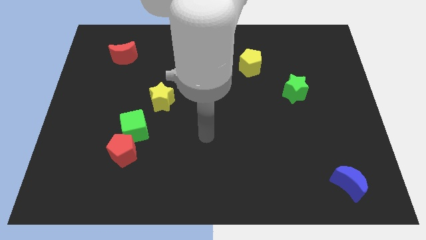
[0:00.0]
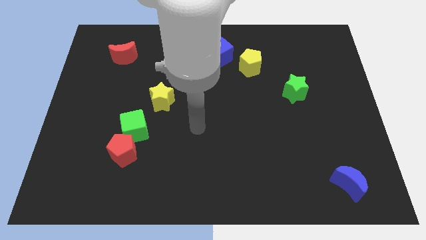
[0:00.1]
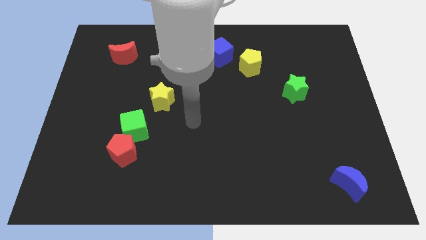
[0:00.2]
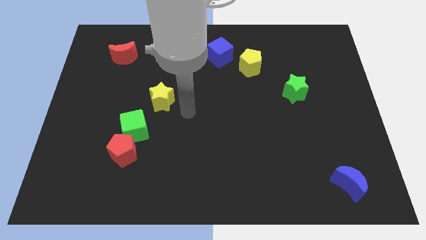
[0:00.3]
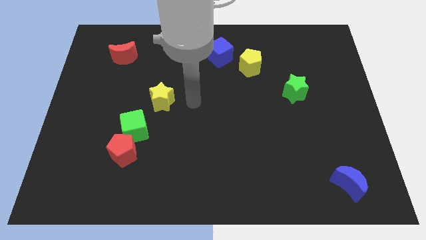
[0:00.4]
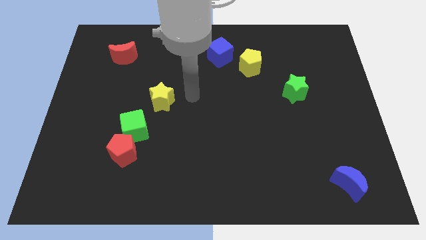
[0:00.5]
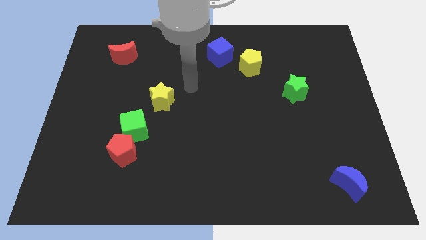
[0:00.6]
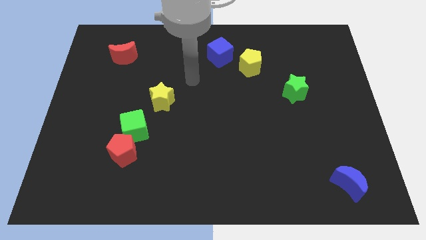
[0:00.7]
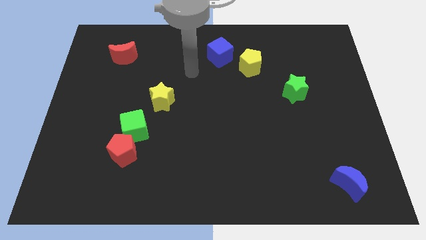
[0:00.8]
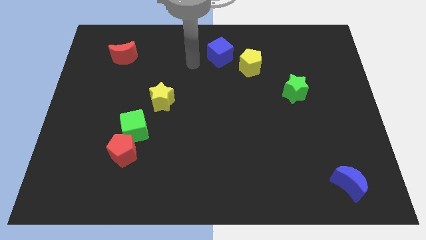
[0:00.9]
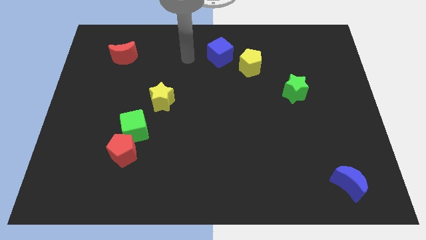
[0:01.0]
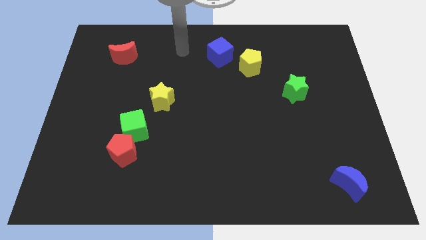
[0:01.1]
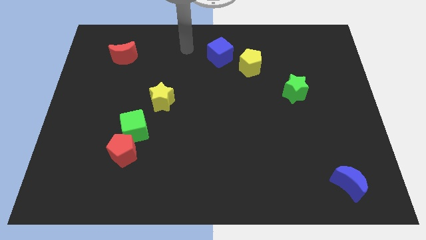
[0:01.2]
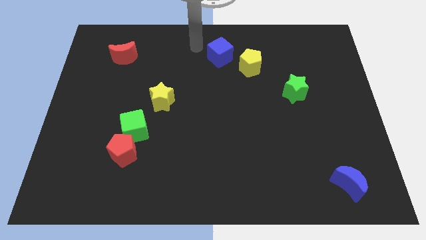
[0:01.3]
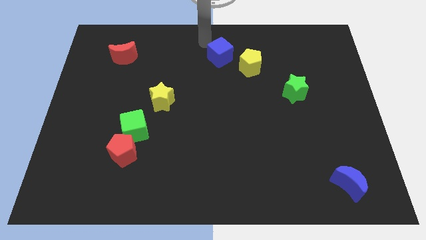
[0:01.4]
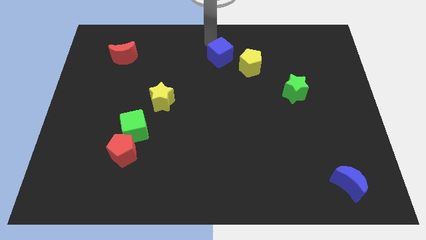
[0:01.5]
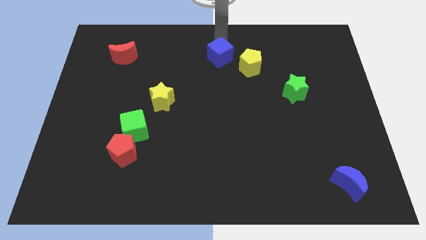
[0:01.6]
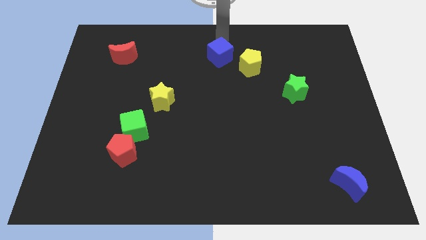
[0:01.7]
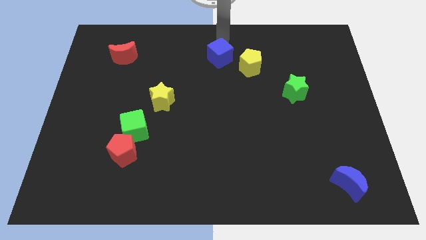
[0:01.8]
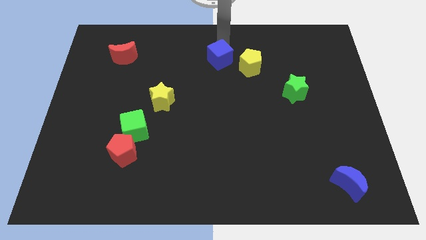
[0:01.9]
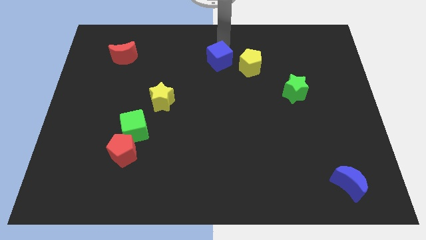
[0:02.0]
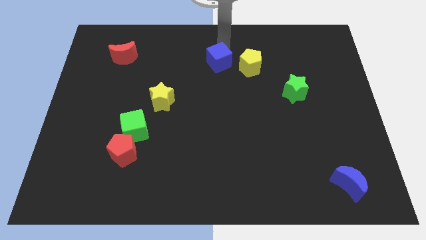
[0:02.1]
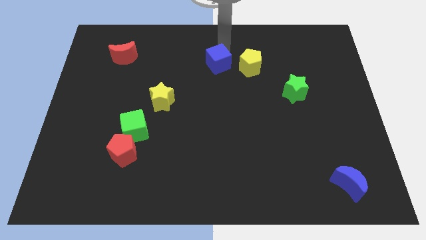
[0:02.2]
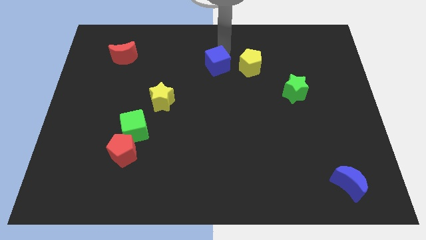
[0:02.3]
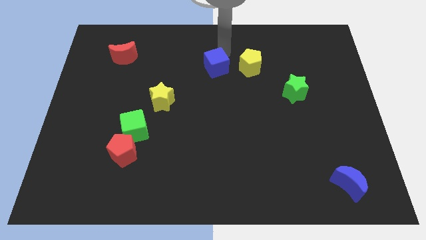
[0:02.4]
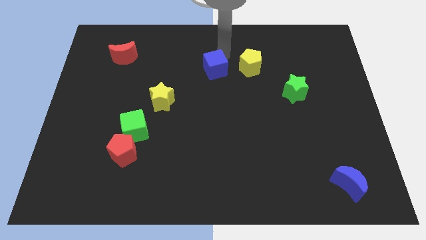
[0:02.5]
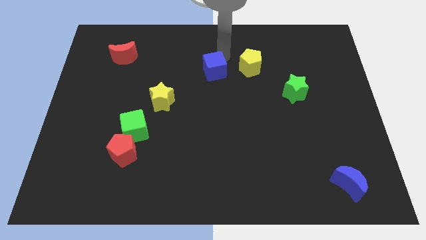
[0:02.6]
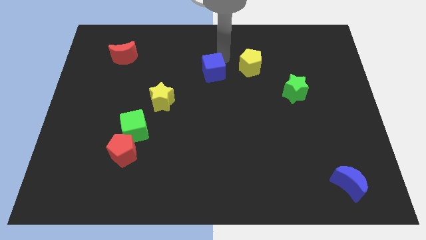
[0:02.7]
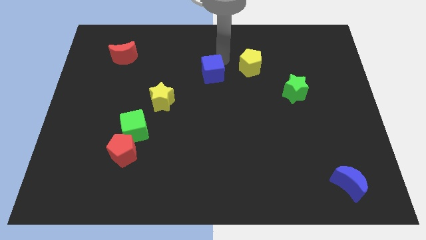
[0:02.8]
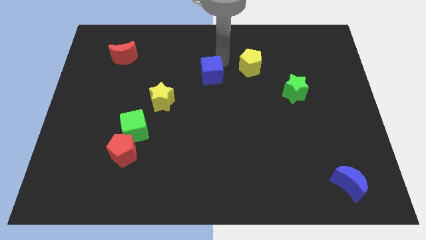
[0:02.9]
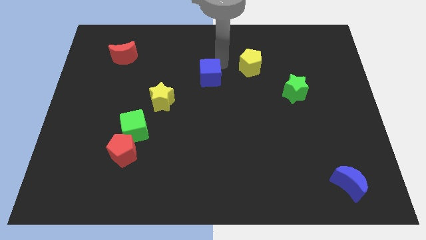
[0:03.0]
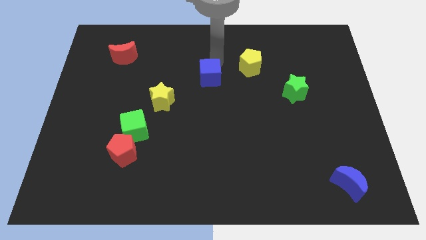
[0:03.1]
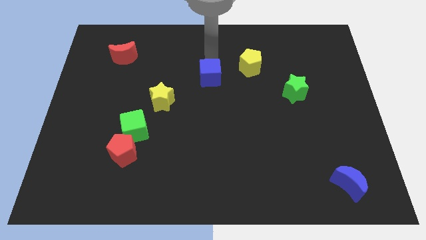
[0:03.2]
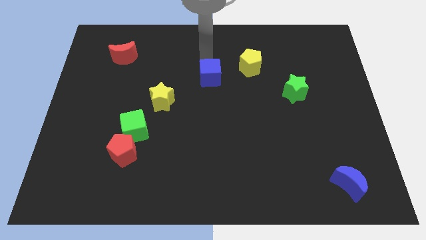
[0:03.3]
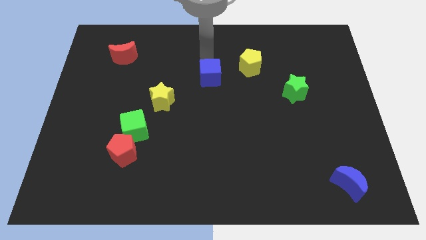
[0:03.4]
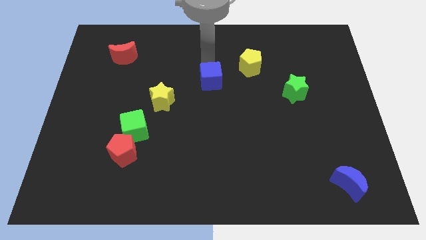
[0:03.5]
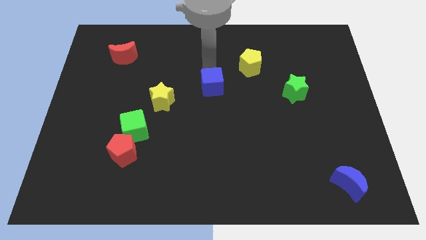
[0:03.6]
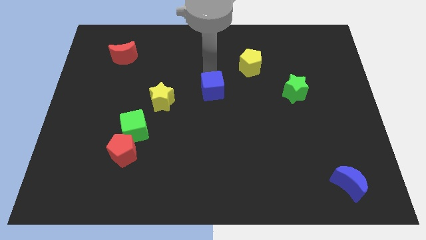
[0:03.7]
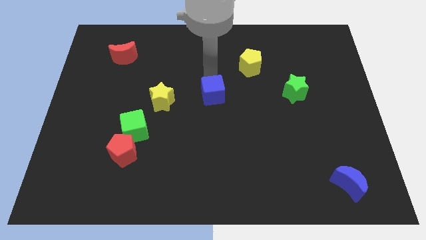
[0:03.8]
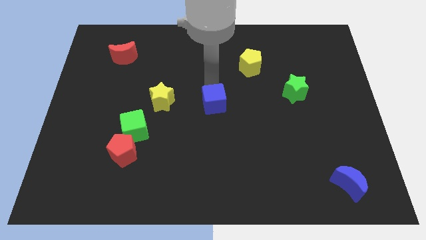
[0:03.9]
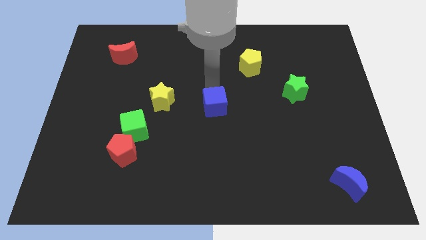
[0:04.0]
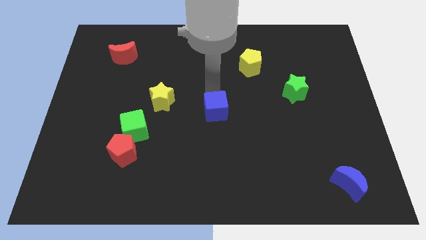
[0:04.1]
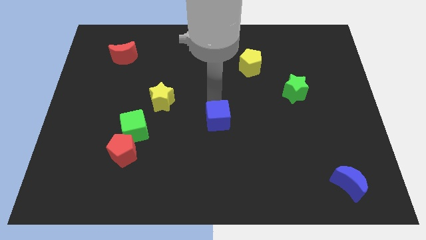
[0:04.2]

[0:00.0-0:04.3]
slide the blue cube downwards

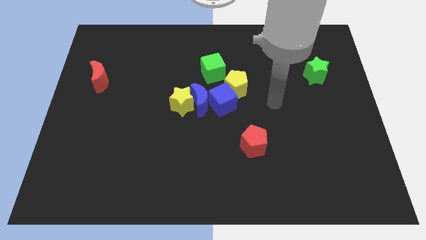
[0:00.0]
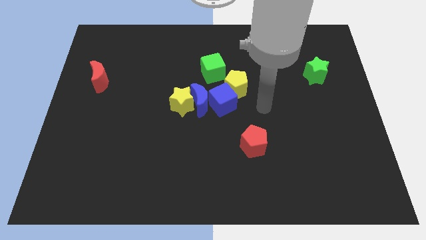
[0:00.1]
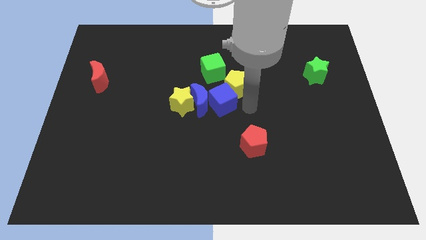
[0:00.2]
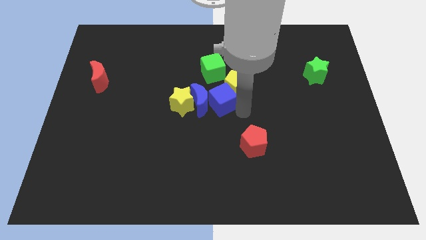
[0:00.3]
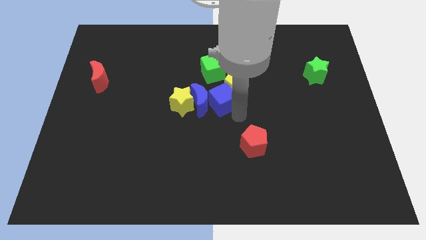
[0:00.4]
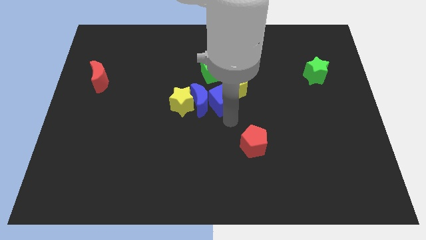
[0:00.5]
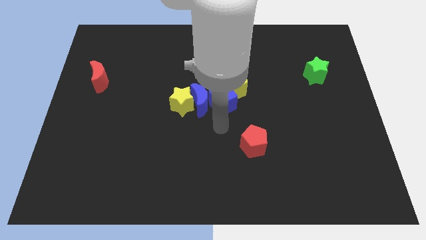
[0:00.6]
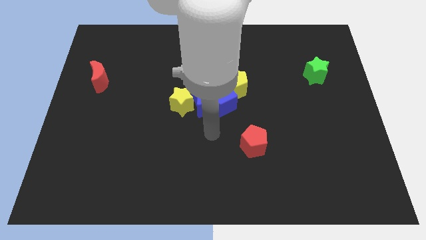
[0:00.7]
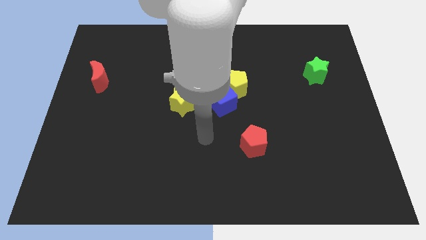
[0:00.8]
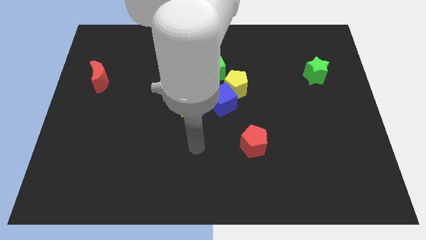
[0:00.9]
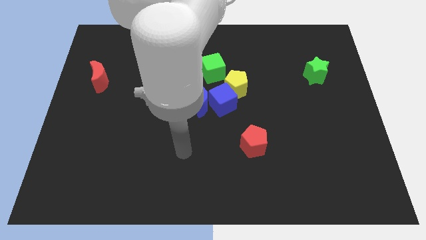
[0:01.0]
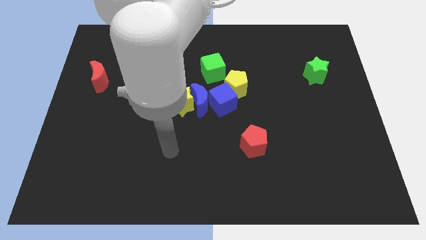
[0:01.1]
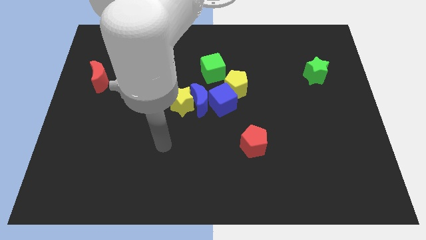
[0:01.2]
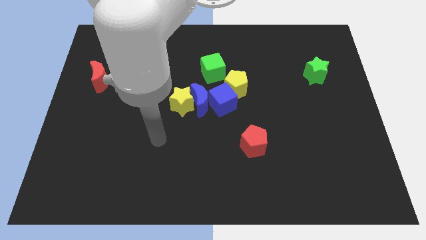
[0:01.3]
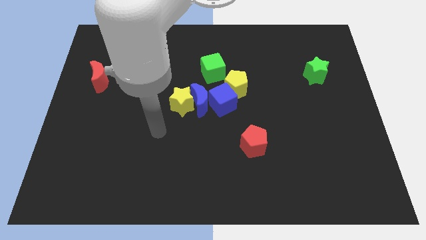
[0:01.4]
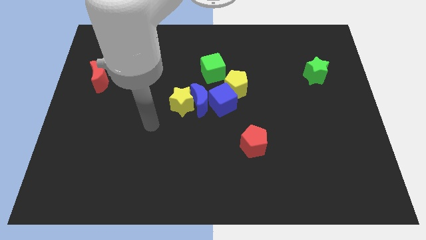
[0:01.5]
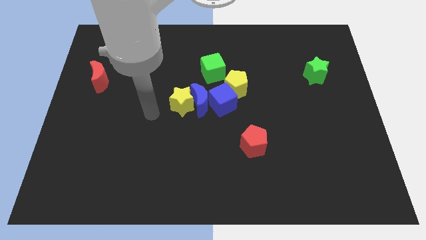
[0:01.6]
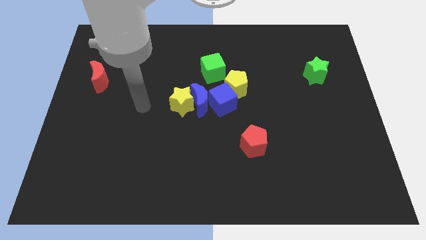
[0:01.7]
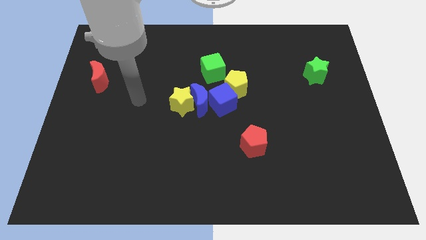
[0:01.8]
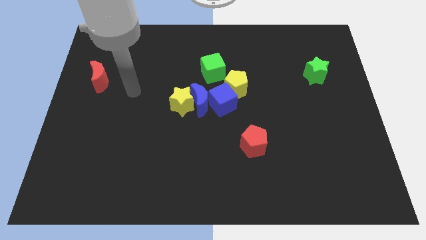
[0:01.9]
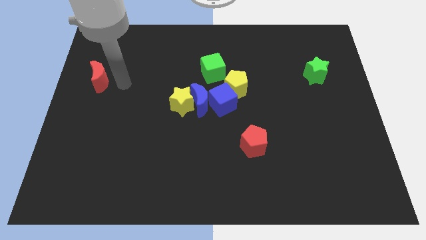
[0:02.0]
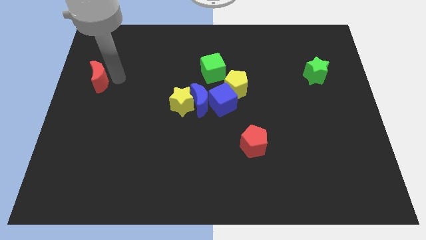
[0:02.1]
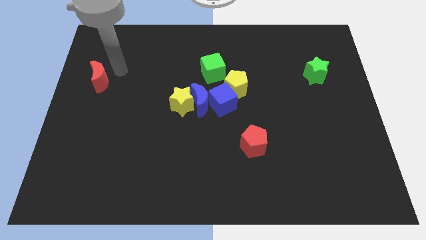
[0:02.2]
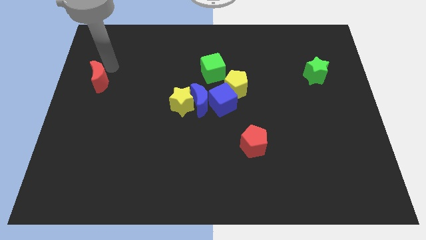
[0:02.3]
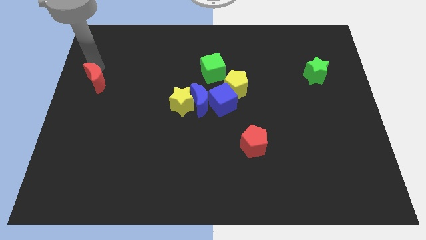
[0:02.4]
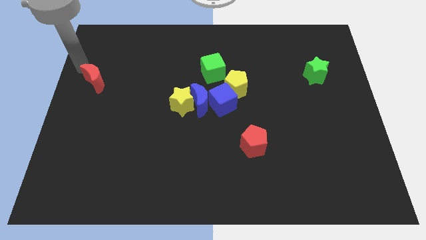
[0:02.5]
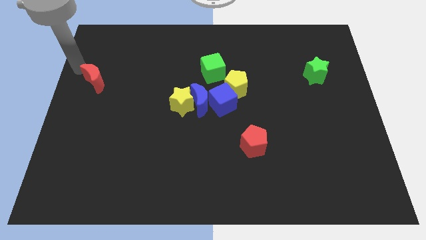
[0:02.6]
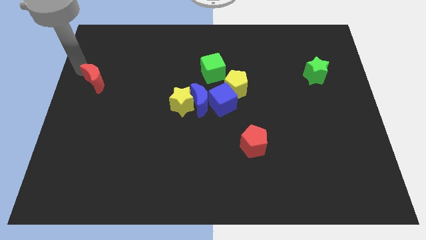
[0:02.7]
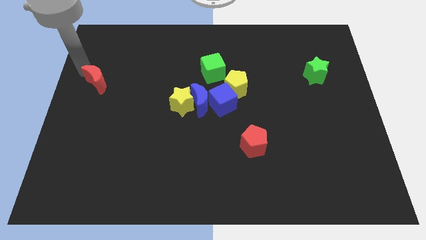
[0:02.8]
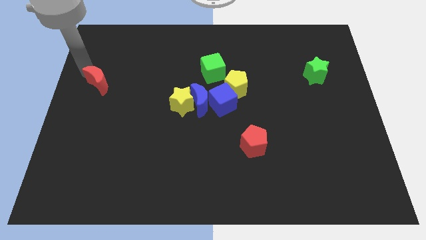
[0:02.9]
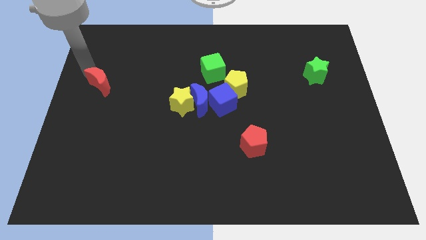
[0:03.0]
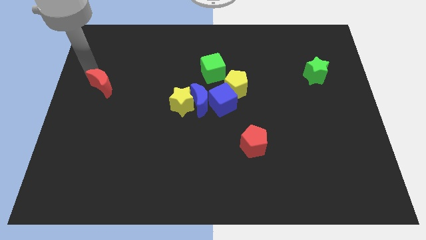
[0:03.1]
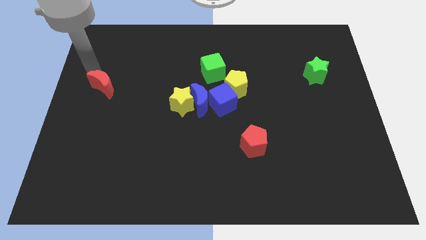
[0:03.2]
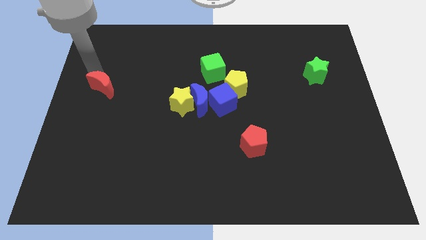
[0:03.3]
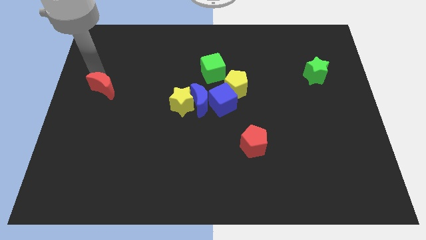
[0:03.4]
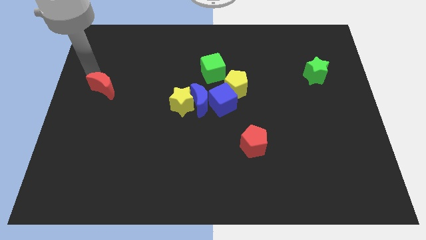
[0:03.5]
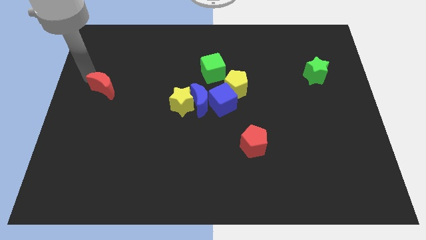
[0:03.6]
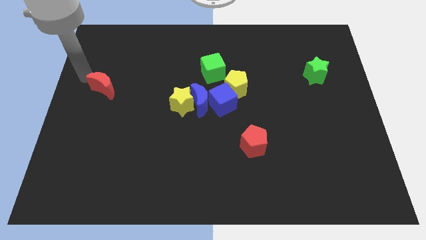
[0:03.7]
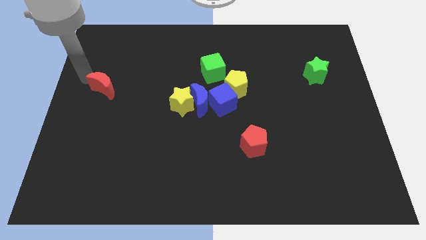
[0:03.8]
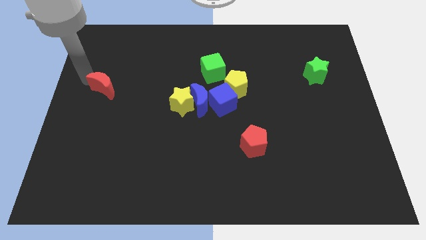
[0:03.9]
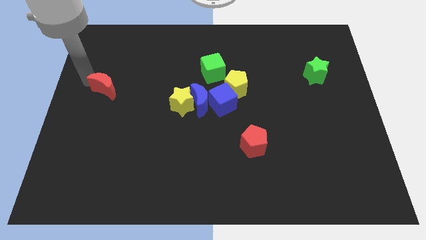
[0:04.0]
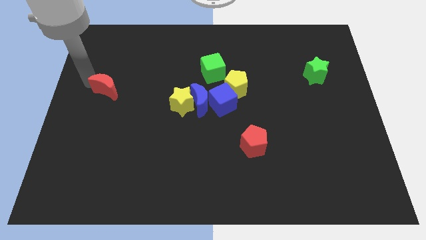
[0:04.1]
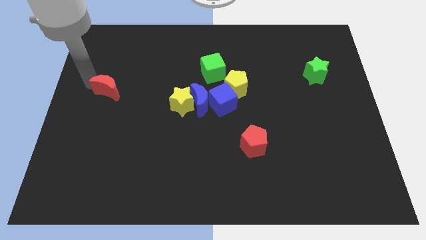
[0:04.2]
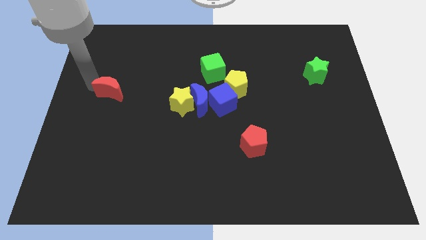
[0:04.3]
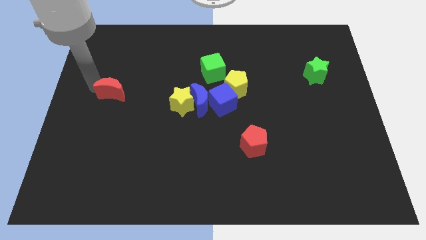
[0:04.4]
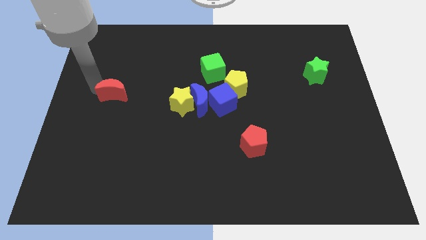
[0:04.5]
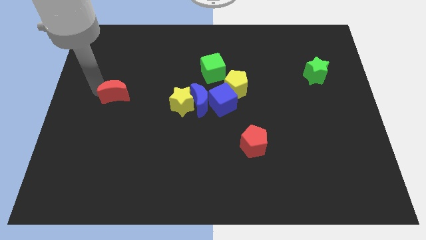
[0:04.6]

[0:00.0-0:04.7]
move the red moon downwards and right a bit
